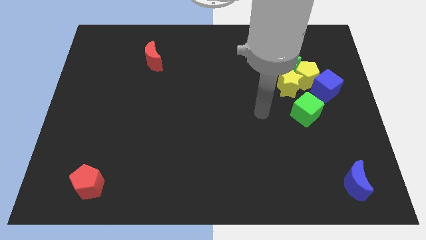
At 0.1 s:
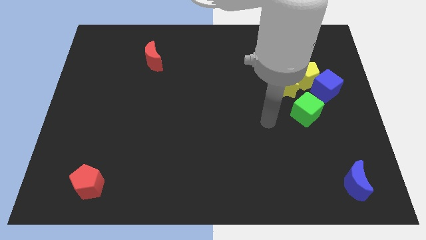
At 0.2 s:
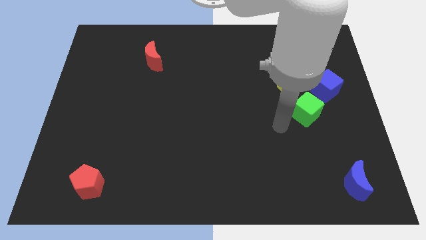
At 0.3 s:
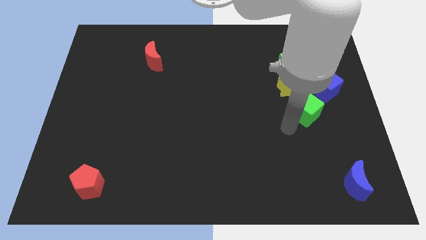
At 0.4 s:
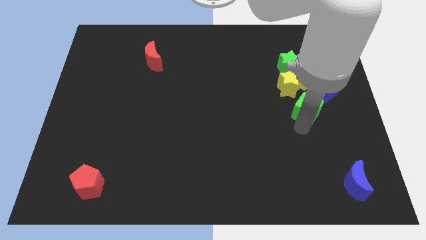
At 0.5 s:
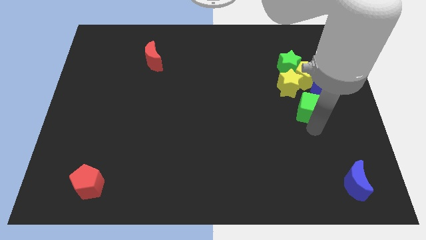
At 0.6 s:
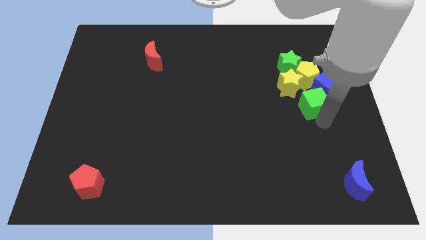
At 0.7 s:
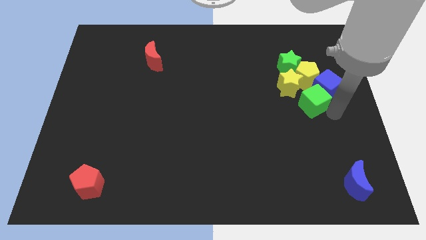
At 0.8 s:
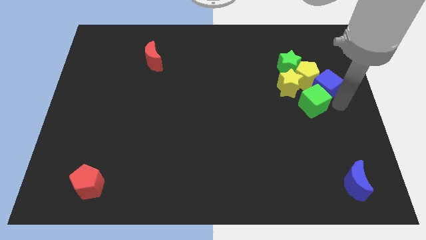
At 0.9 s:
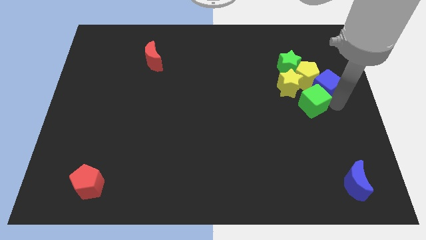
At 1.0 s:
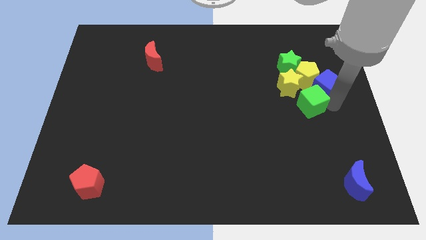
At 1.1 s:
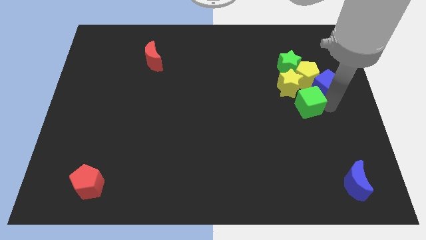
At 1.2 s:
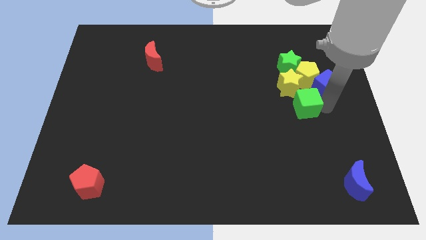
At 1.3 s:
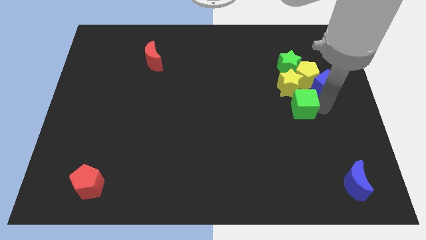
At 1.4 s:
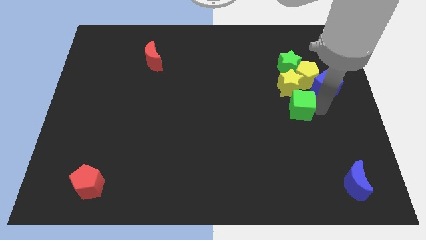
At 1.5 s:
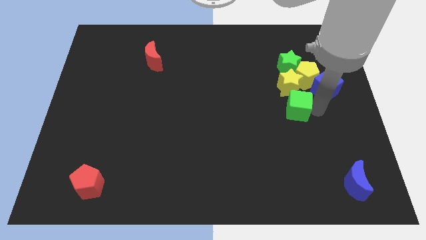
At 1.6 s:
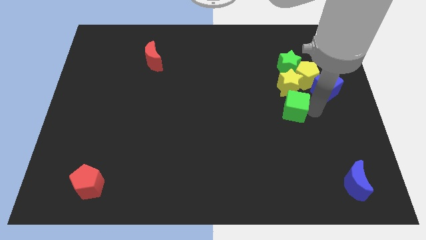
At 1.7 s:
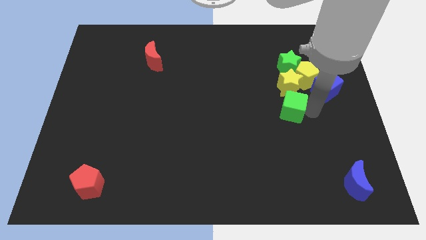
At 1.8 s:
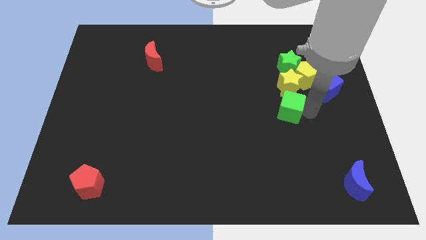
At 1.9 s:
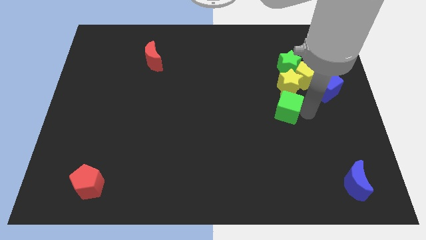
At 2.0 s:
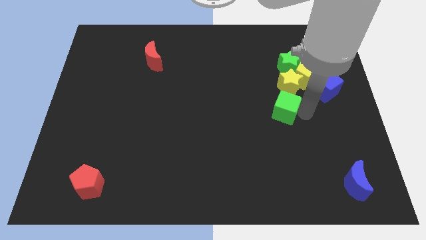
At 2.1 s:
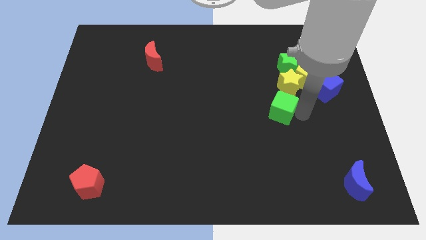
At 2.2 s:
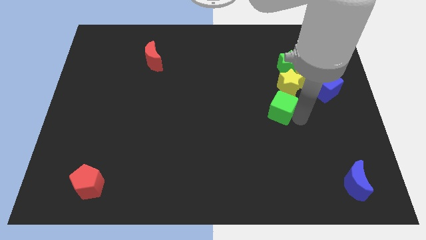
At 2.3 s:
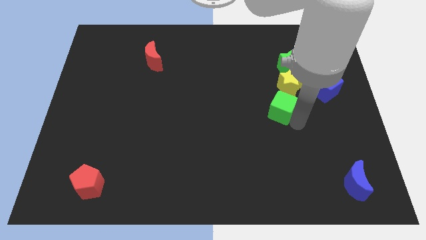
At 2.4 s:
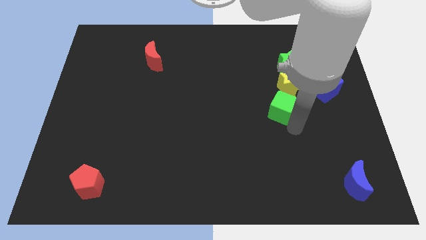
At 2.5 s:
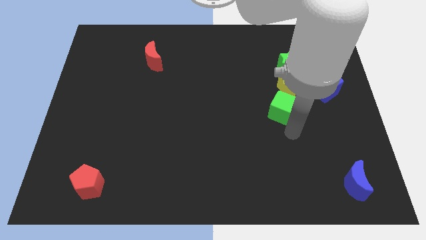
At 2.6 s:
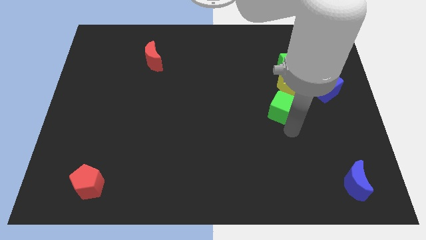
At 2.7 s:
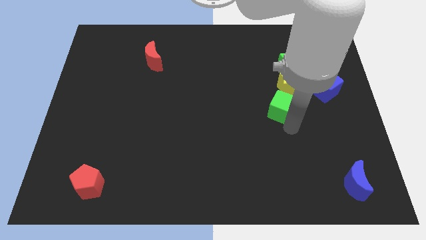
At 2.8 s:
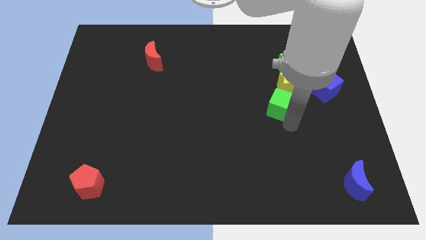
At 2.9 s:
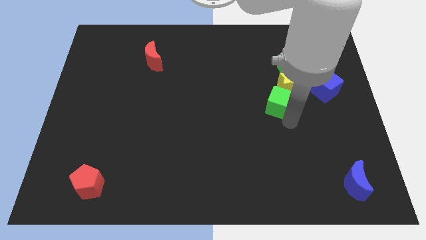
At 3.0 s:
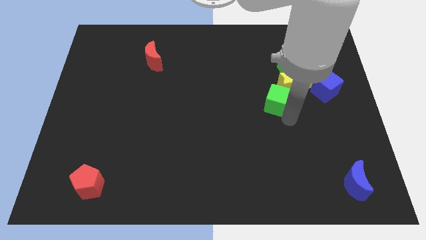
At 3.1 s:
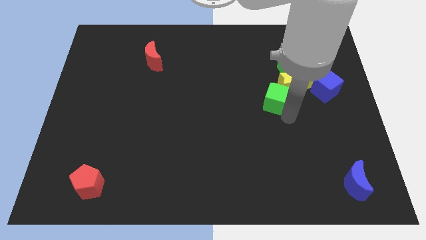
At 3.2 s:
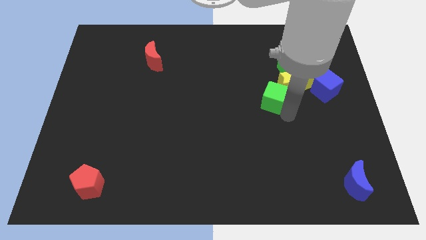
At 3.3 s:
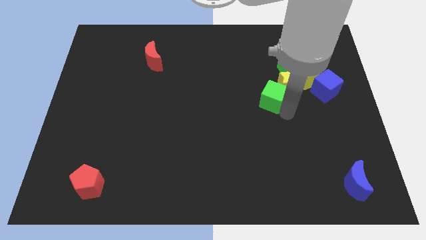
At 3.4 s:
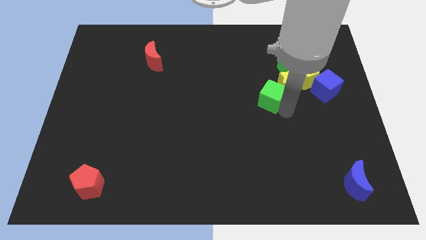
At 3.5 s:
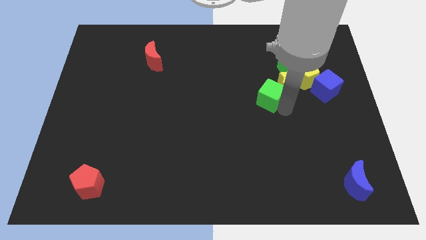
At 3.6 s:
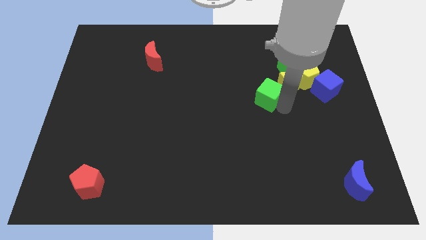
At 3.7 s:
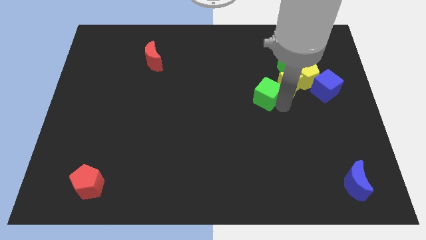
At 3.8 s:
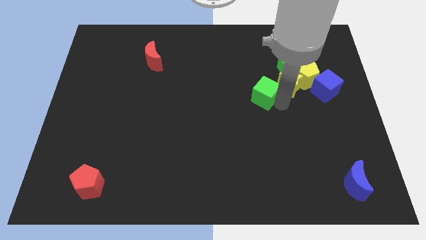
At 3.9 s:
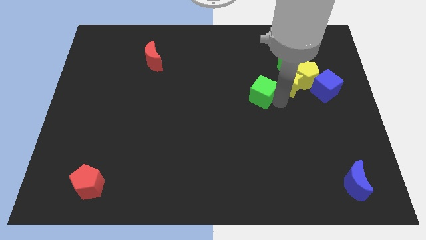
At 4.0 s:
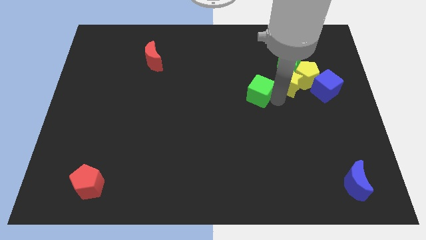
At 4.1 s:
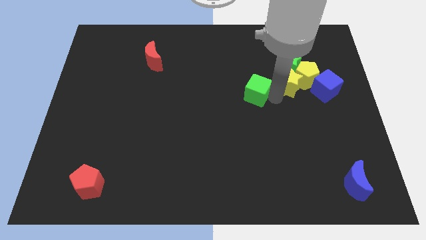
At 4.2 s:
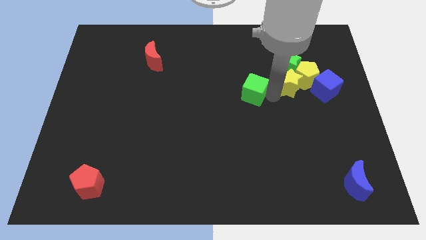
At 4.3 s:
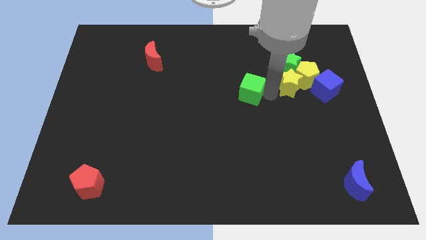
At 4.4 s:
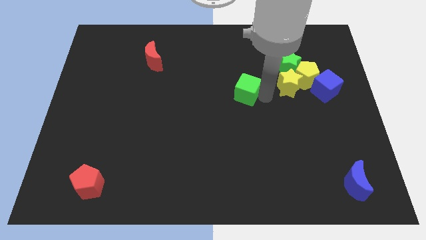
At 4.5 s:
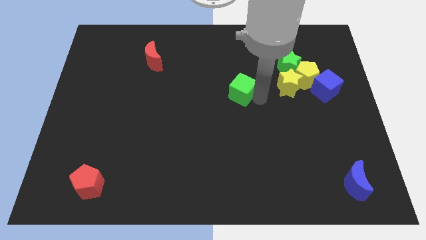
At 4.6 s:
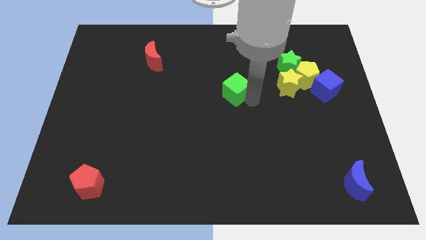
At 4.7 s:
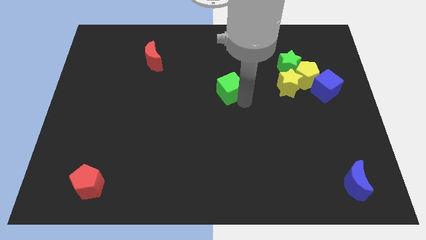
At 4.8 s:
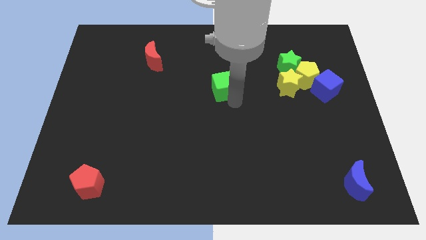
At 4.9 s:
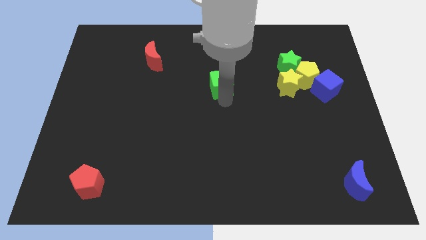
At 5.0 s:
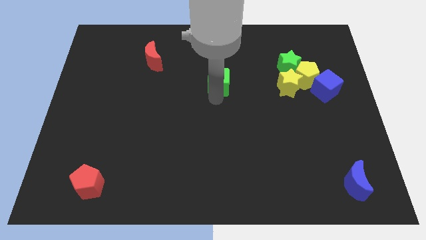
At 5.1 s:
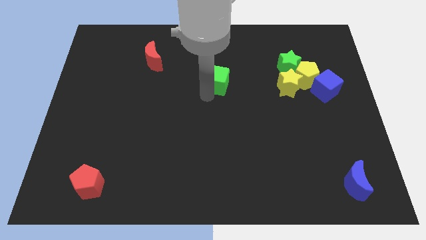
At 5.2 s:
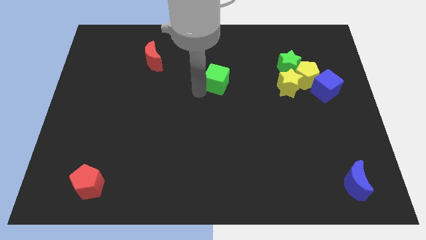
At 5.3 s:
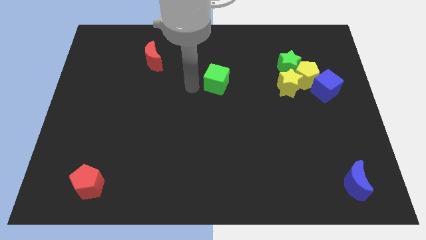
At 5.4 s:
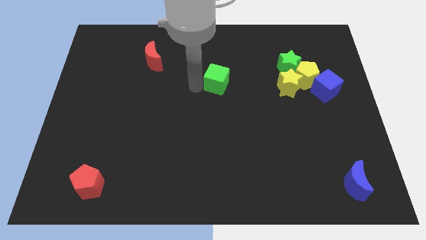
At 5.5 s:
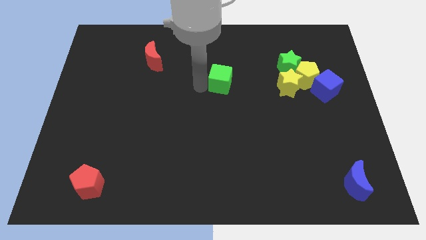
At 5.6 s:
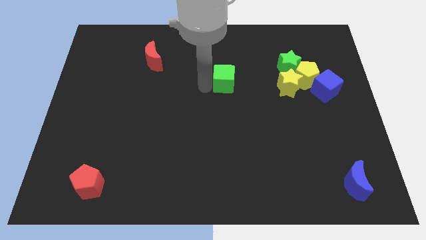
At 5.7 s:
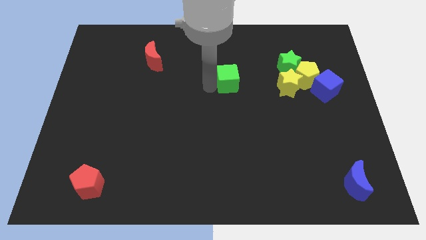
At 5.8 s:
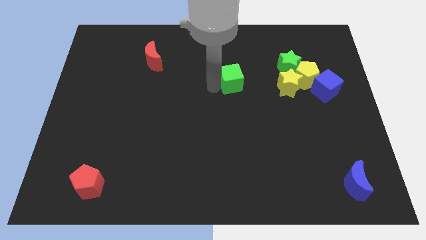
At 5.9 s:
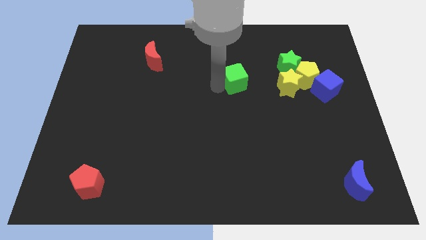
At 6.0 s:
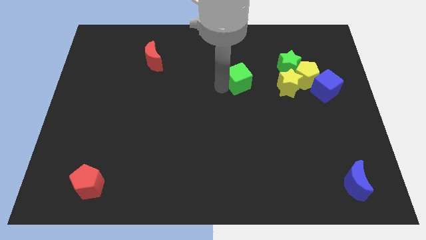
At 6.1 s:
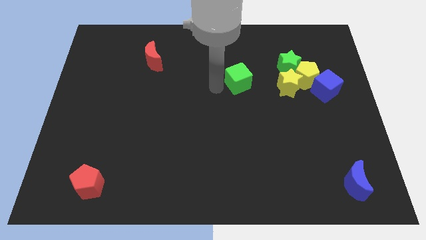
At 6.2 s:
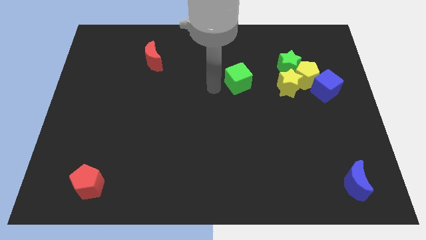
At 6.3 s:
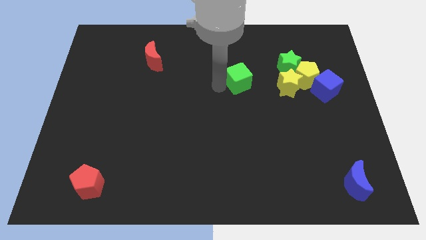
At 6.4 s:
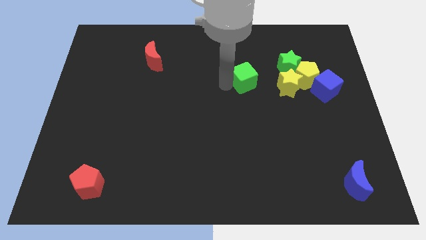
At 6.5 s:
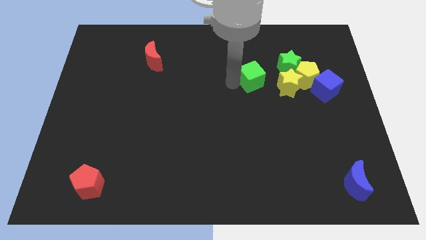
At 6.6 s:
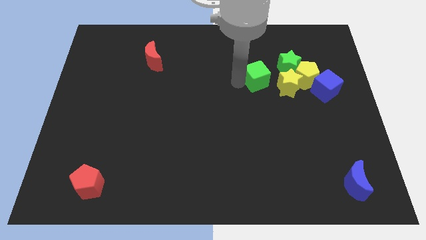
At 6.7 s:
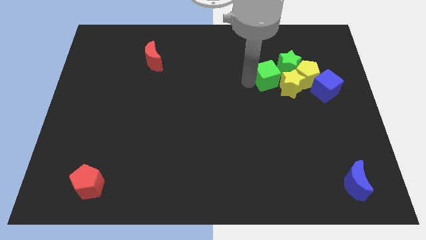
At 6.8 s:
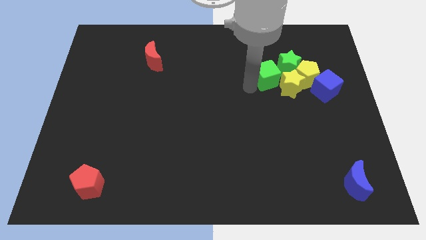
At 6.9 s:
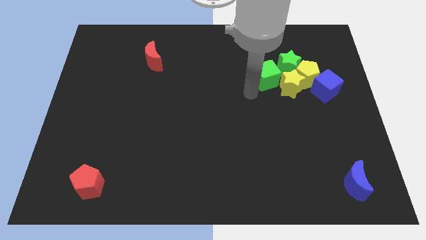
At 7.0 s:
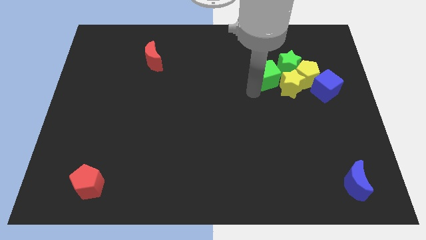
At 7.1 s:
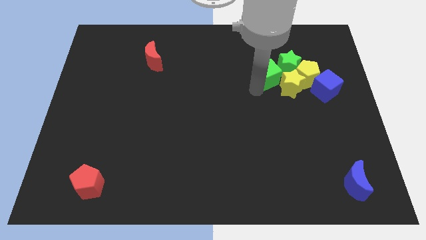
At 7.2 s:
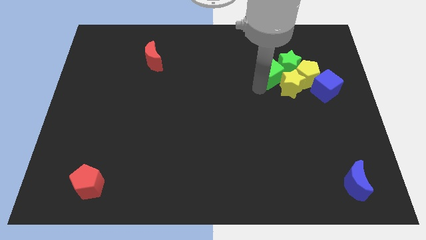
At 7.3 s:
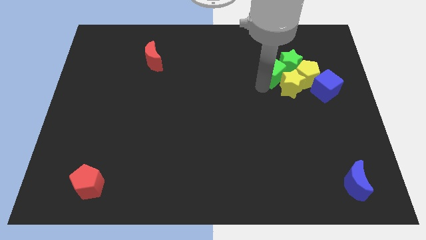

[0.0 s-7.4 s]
put the green cube to the top side of the yellow star
